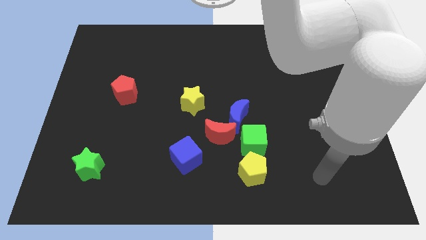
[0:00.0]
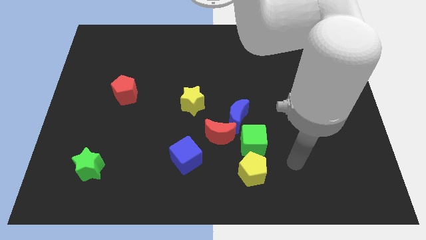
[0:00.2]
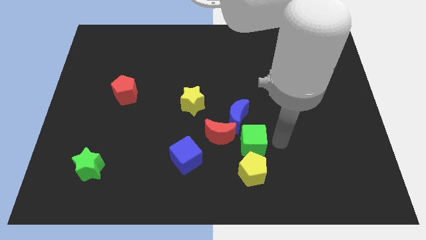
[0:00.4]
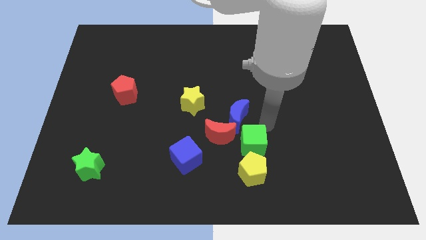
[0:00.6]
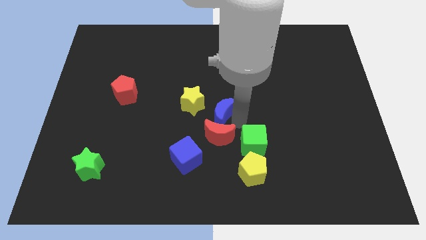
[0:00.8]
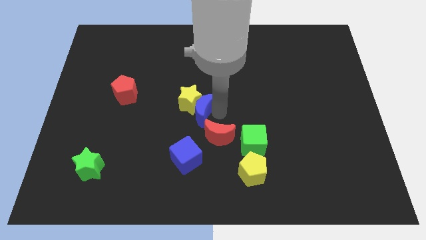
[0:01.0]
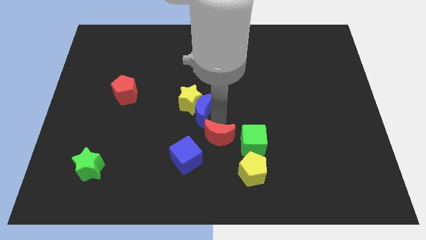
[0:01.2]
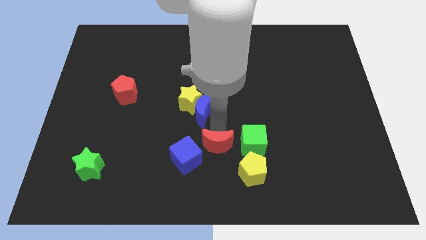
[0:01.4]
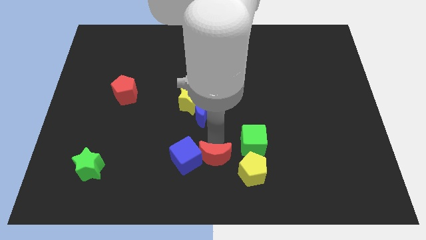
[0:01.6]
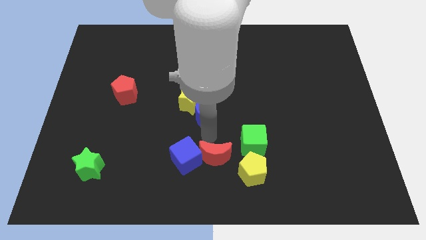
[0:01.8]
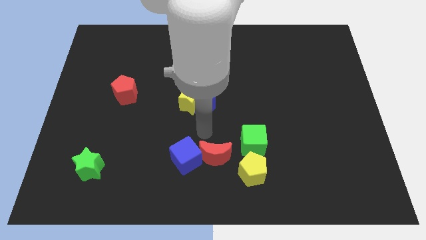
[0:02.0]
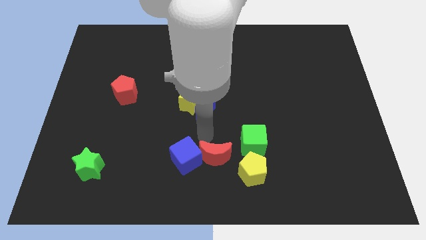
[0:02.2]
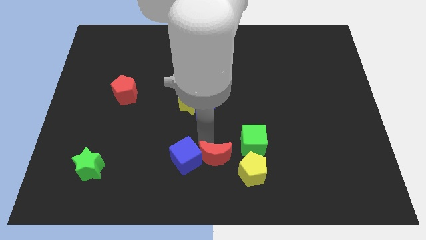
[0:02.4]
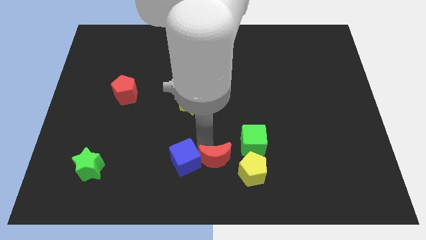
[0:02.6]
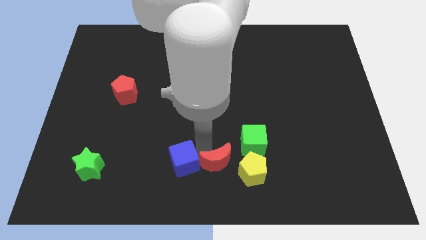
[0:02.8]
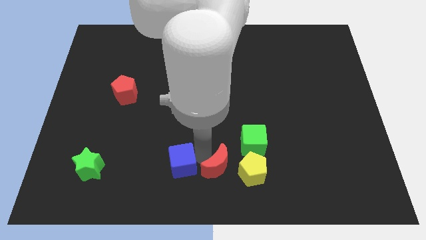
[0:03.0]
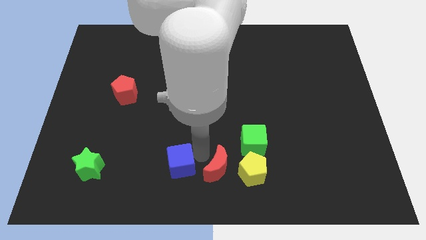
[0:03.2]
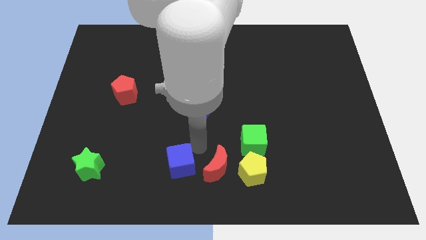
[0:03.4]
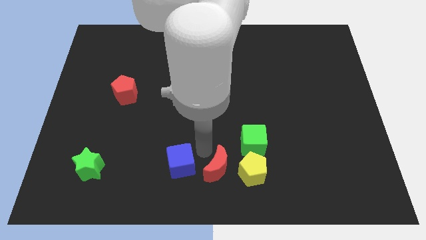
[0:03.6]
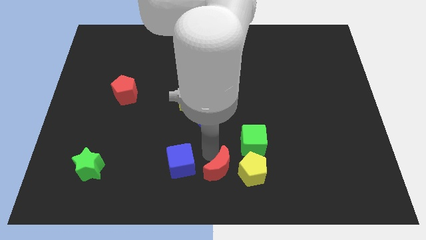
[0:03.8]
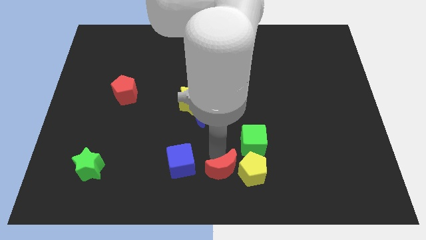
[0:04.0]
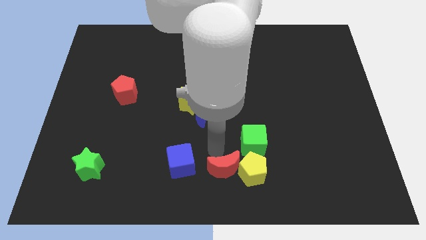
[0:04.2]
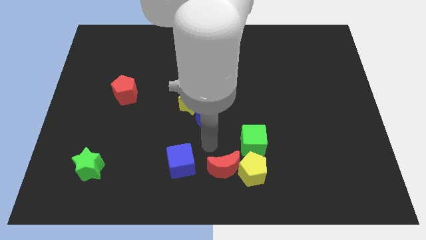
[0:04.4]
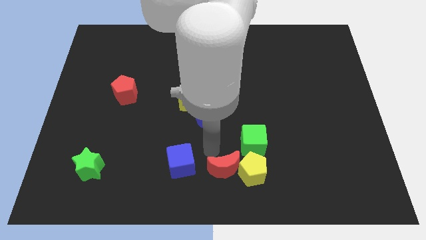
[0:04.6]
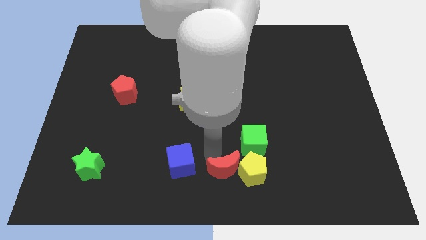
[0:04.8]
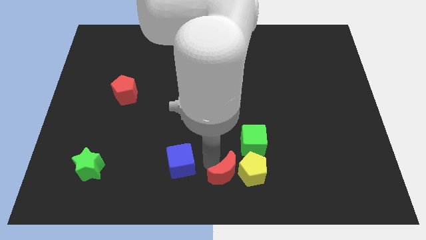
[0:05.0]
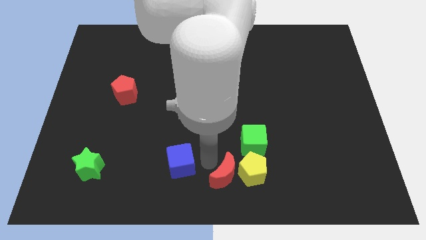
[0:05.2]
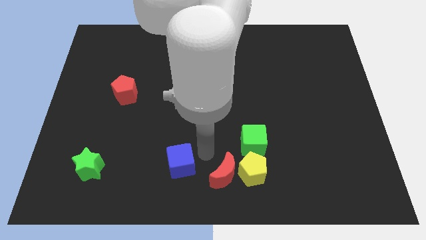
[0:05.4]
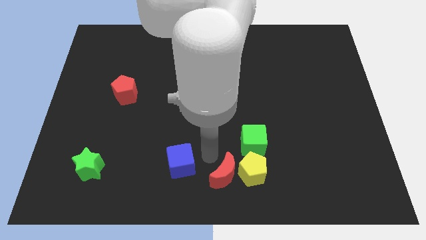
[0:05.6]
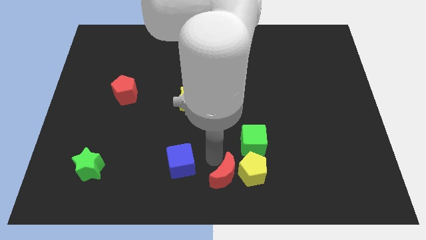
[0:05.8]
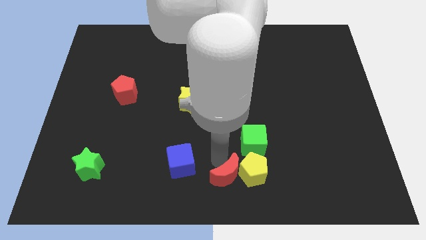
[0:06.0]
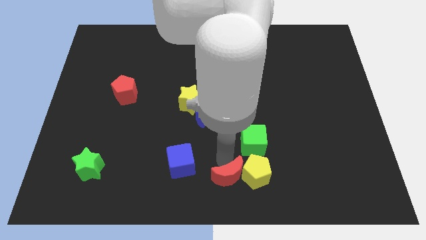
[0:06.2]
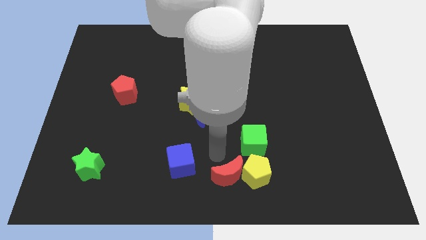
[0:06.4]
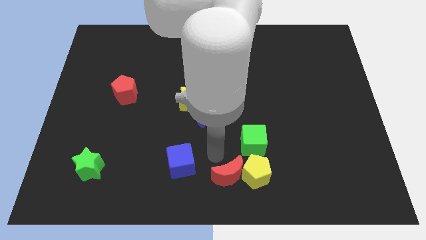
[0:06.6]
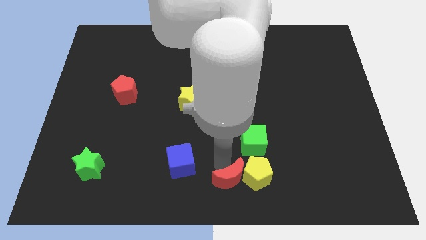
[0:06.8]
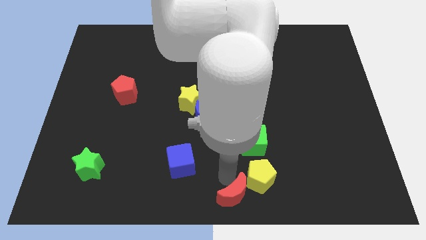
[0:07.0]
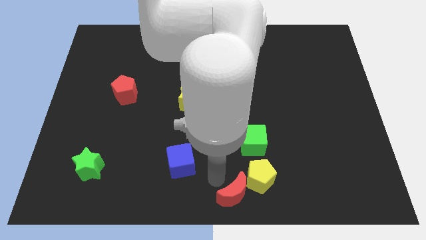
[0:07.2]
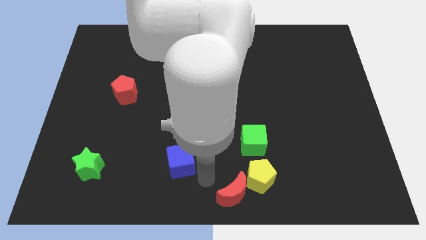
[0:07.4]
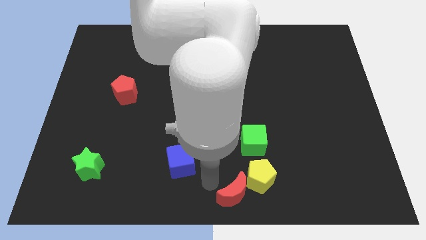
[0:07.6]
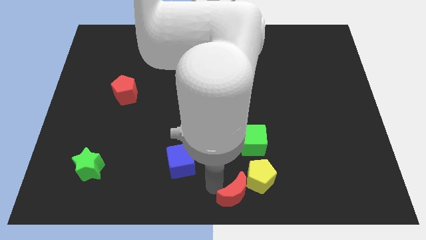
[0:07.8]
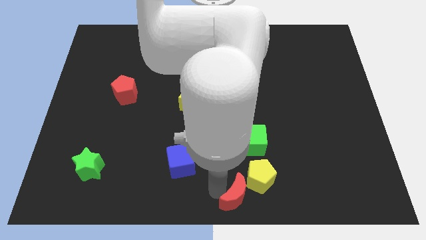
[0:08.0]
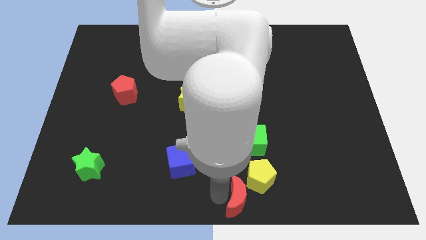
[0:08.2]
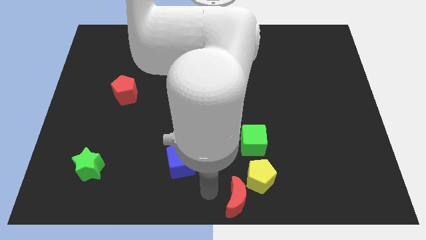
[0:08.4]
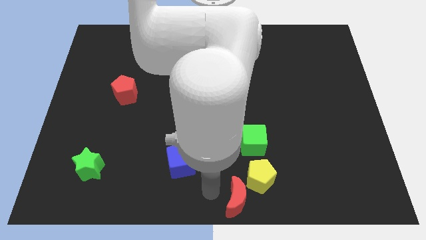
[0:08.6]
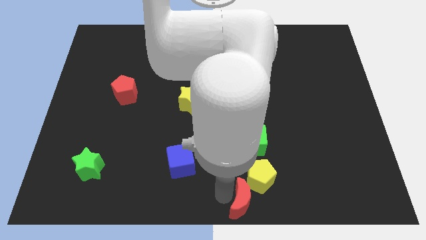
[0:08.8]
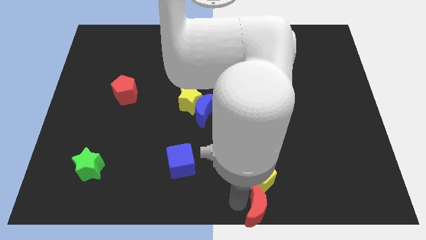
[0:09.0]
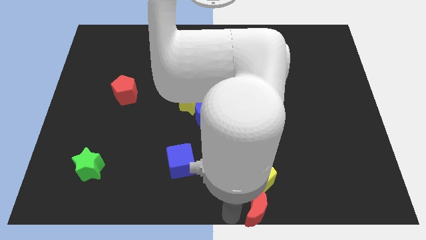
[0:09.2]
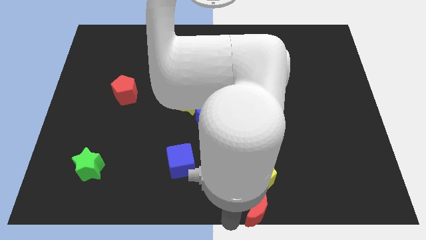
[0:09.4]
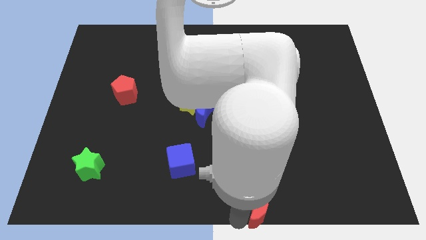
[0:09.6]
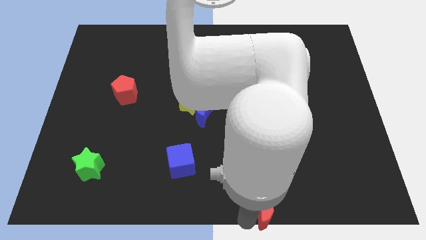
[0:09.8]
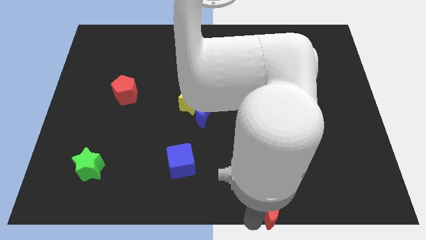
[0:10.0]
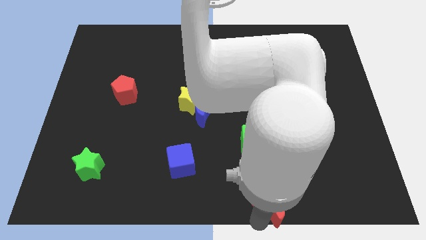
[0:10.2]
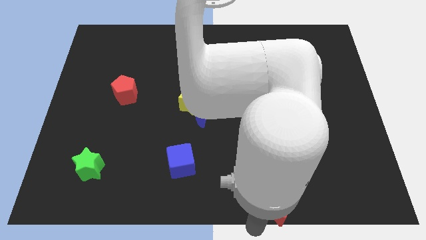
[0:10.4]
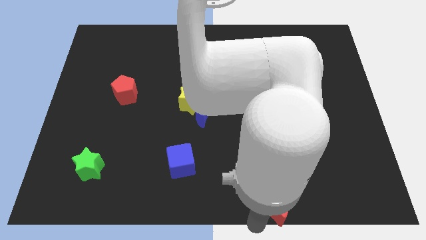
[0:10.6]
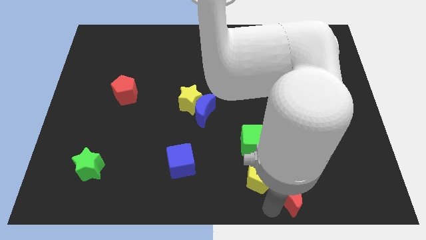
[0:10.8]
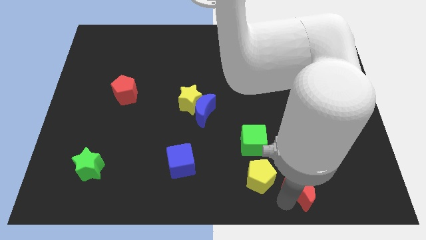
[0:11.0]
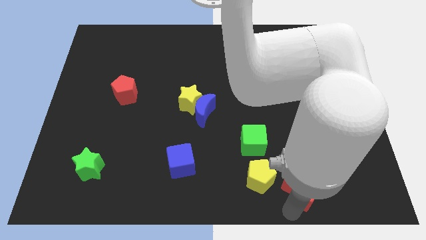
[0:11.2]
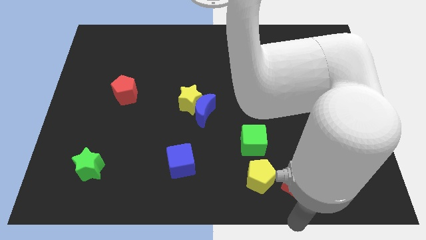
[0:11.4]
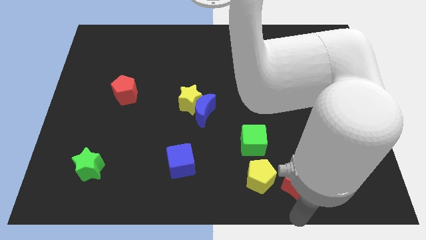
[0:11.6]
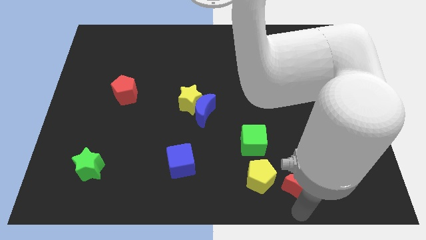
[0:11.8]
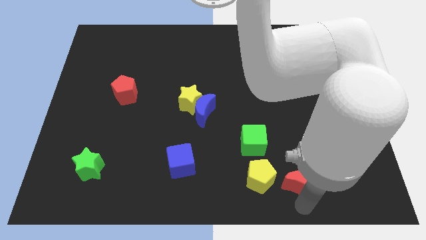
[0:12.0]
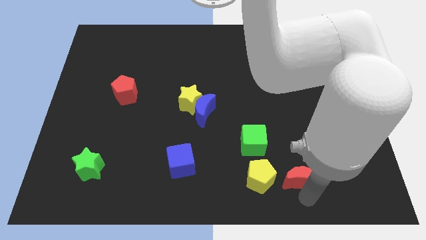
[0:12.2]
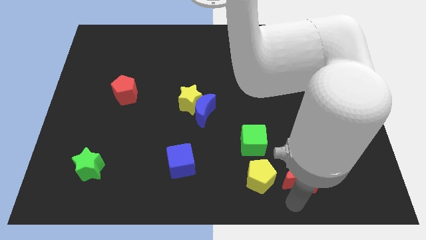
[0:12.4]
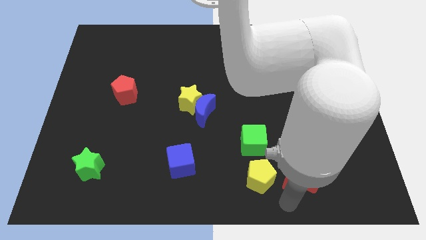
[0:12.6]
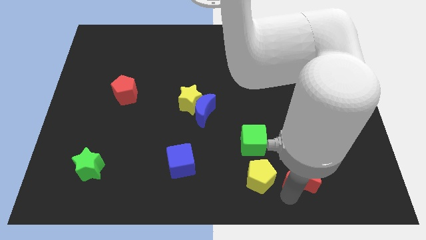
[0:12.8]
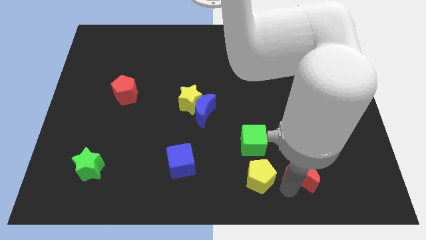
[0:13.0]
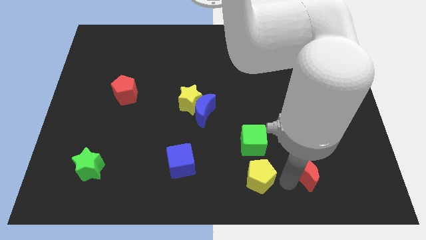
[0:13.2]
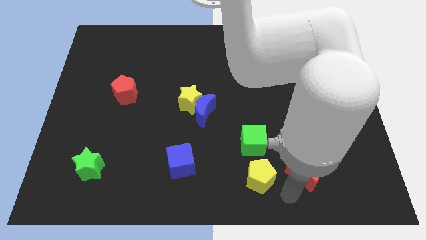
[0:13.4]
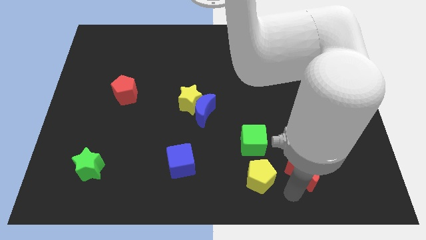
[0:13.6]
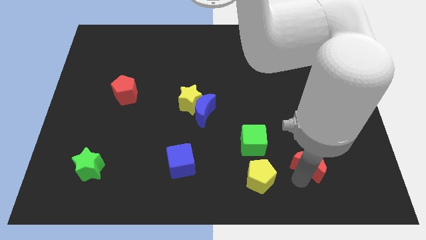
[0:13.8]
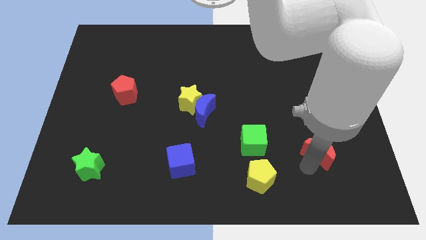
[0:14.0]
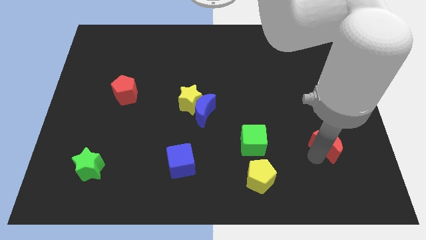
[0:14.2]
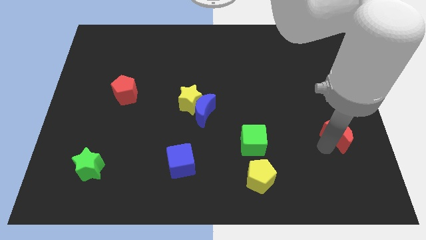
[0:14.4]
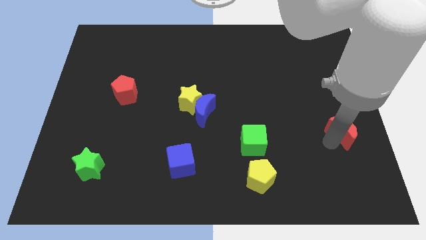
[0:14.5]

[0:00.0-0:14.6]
slide the red moon to the right side of the board
